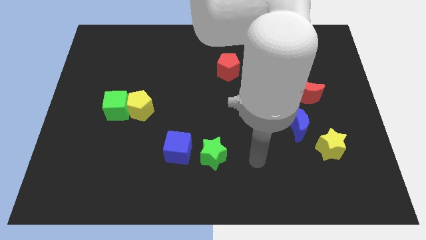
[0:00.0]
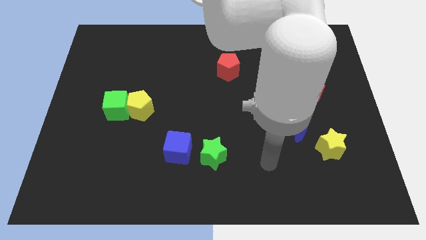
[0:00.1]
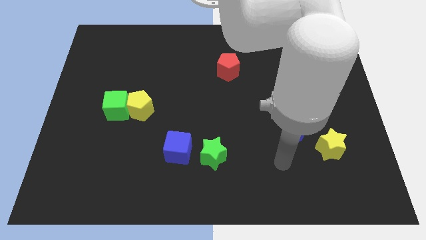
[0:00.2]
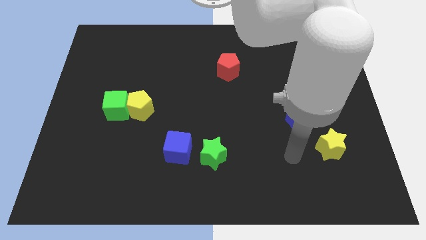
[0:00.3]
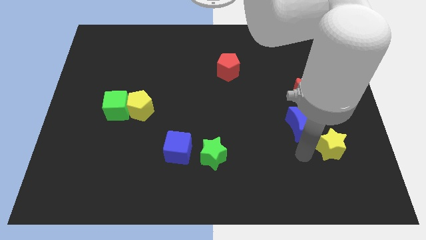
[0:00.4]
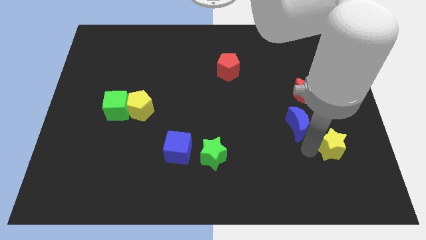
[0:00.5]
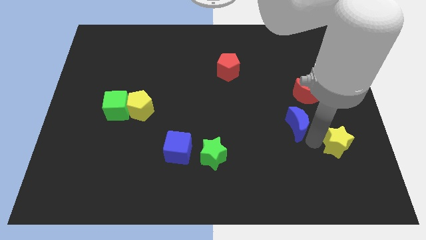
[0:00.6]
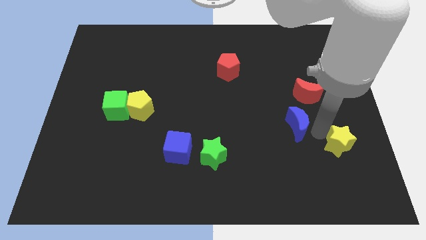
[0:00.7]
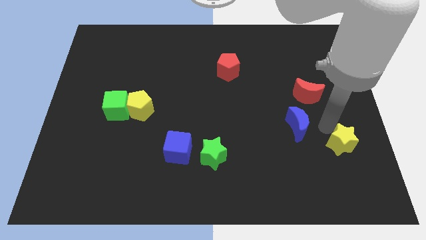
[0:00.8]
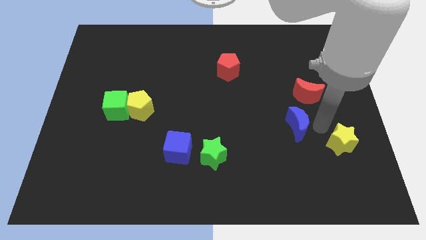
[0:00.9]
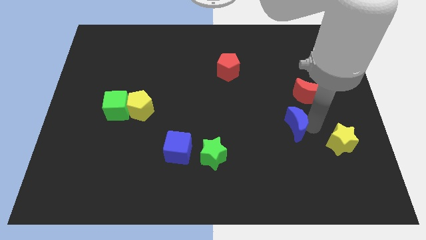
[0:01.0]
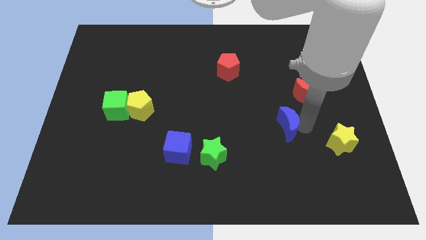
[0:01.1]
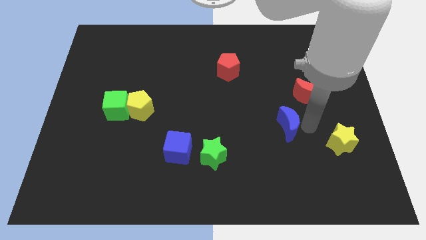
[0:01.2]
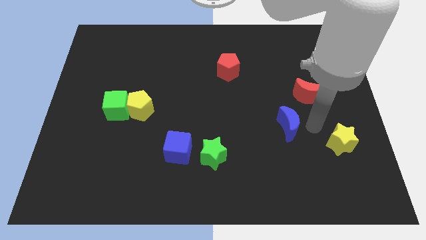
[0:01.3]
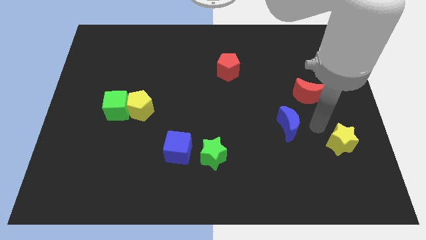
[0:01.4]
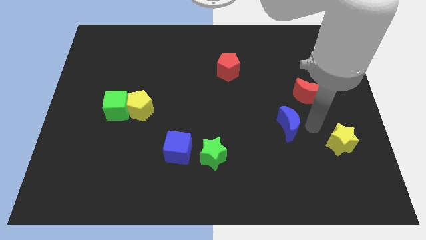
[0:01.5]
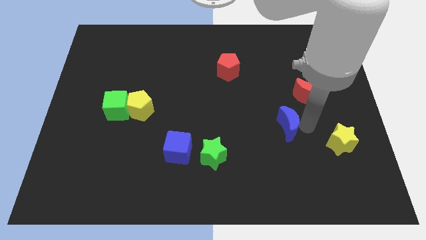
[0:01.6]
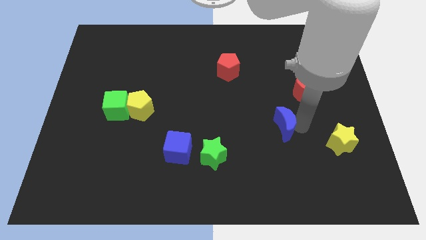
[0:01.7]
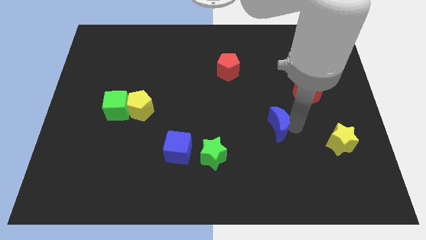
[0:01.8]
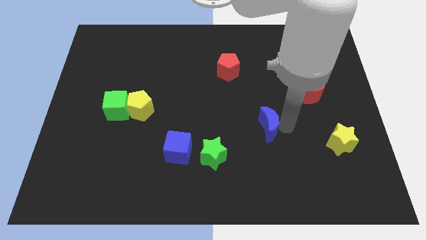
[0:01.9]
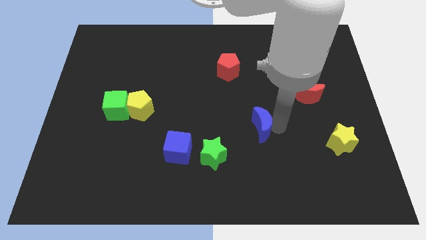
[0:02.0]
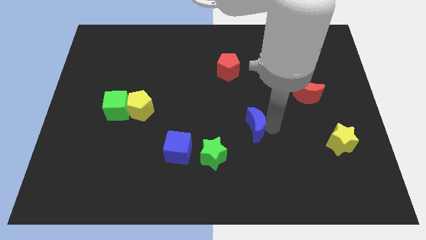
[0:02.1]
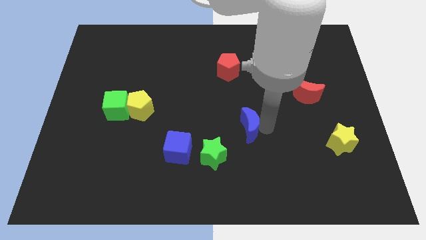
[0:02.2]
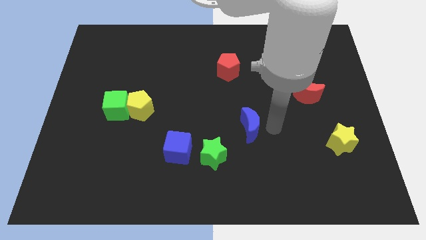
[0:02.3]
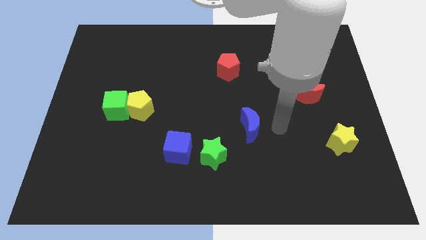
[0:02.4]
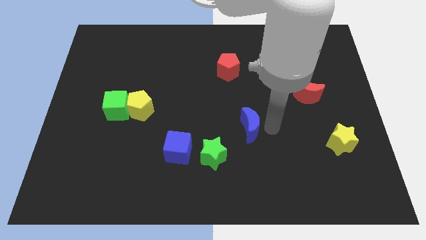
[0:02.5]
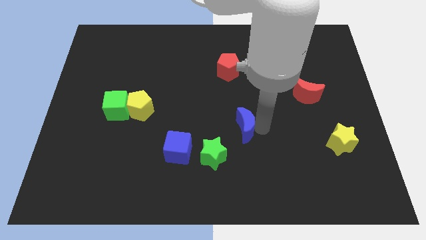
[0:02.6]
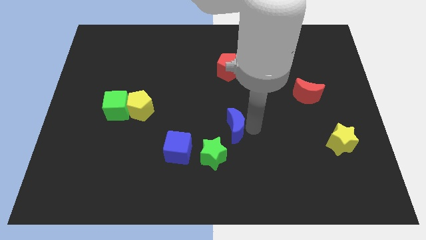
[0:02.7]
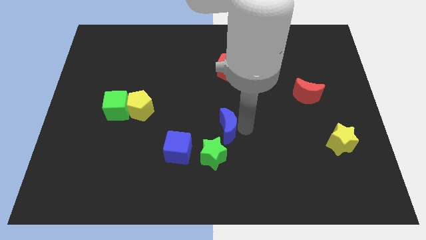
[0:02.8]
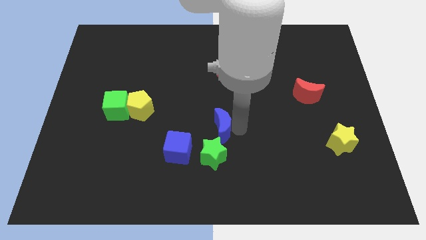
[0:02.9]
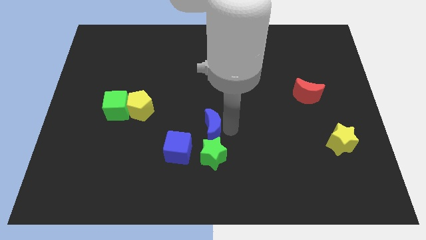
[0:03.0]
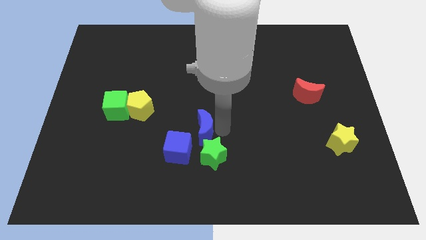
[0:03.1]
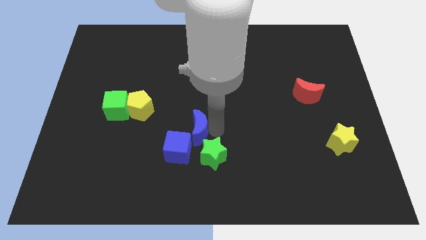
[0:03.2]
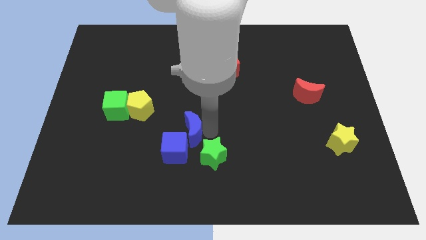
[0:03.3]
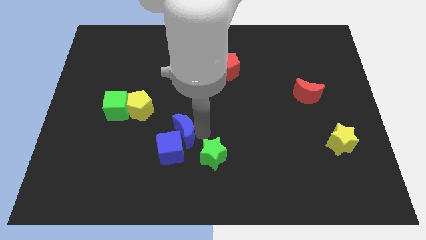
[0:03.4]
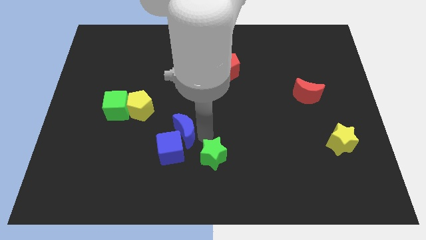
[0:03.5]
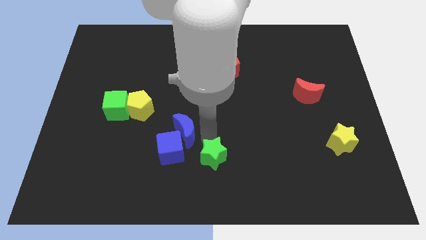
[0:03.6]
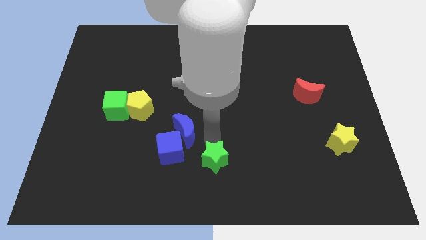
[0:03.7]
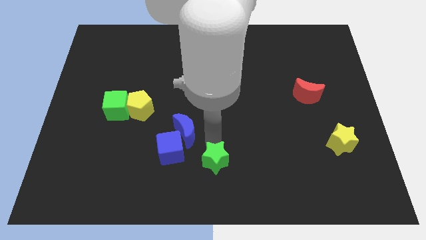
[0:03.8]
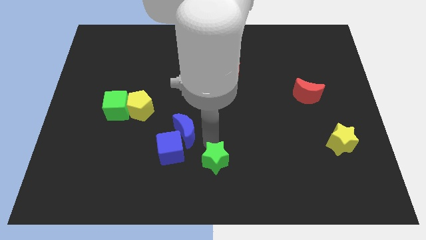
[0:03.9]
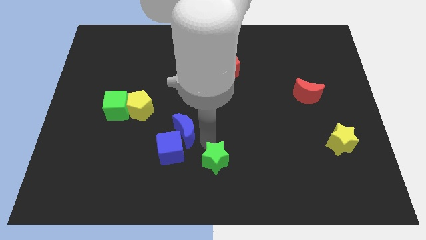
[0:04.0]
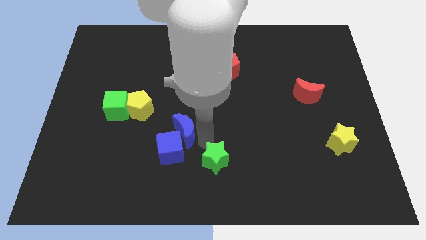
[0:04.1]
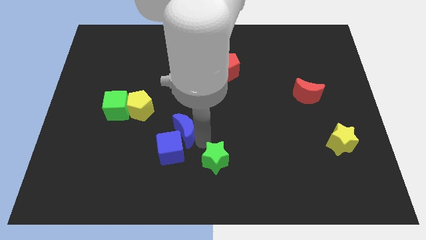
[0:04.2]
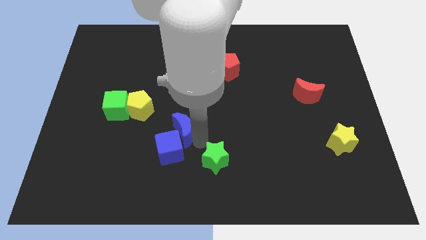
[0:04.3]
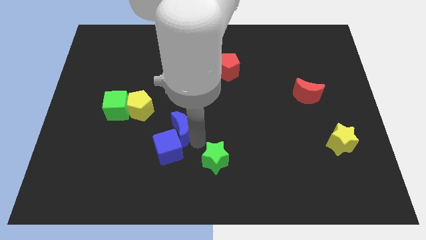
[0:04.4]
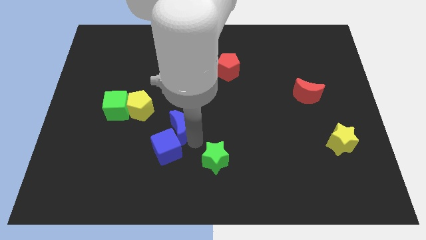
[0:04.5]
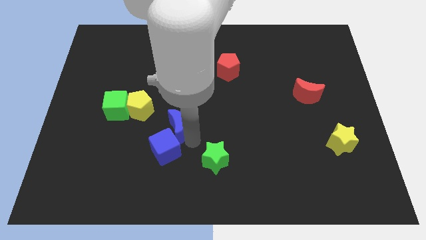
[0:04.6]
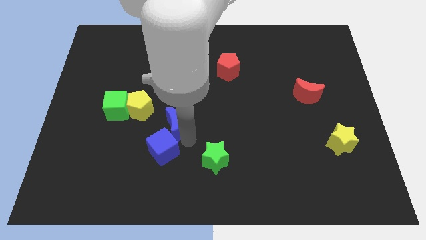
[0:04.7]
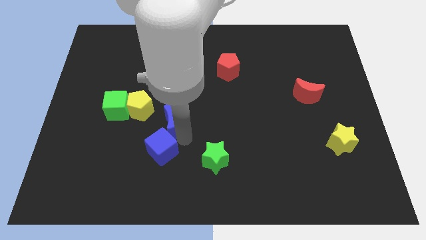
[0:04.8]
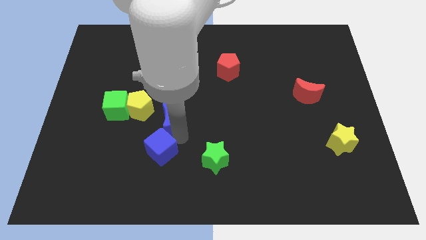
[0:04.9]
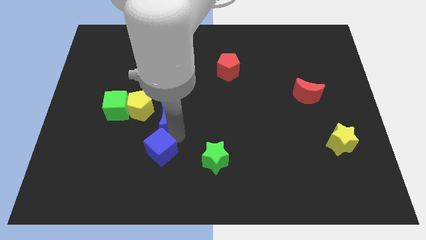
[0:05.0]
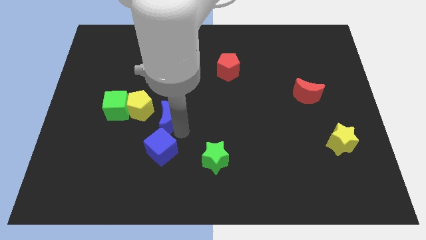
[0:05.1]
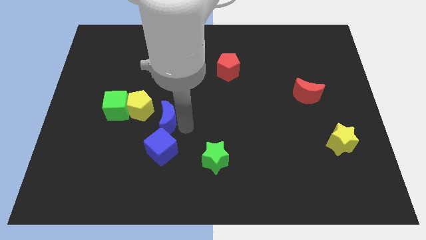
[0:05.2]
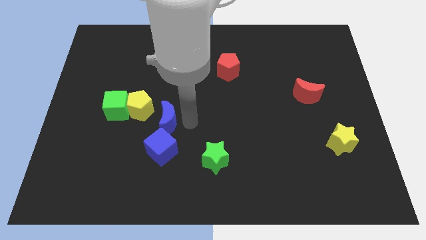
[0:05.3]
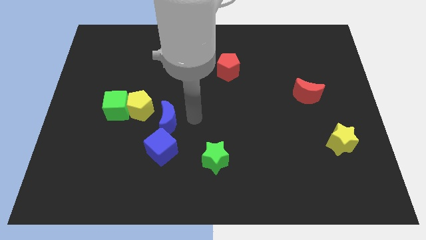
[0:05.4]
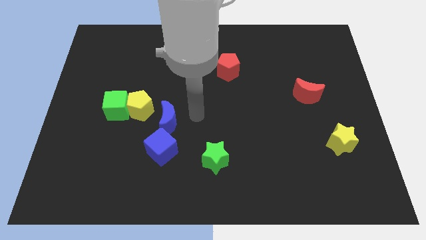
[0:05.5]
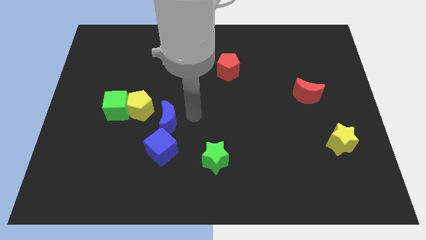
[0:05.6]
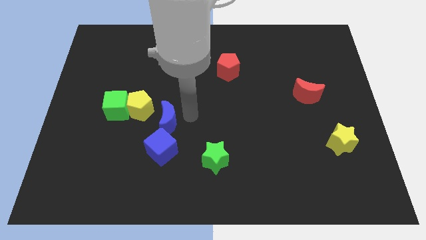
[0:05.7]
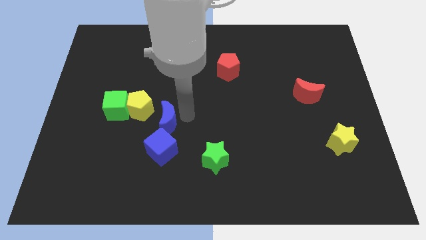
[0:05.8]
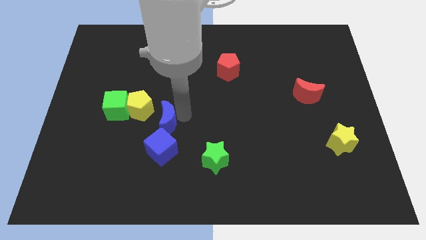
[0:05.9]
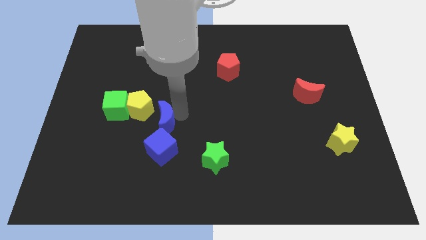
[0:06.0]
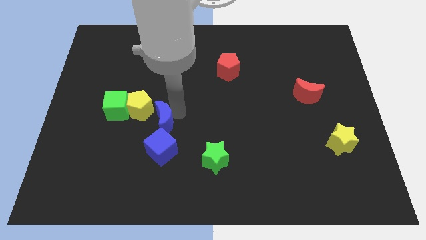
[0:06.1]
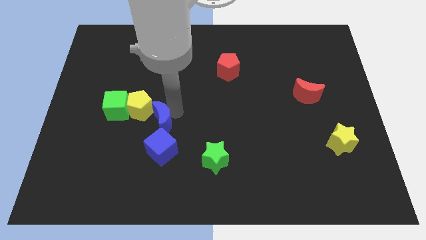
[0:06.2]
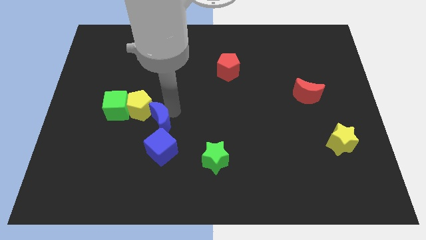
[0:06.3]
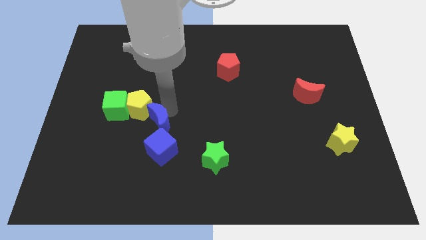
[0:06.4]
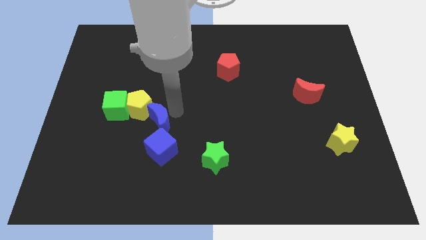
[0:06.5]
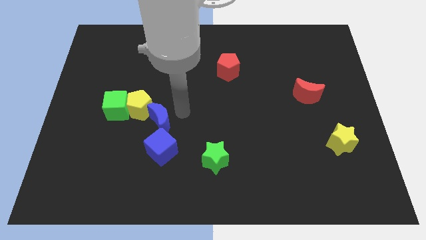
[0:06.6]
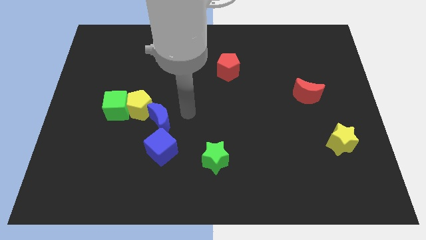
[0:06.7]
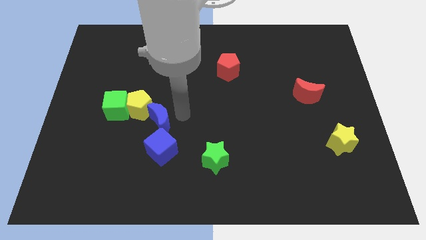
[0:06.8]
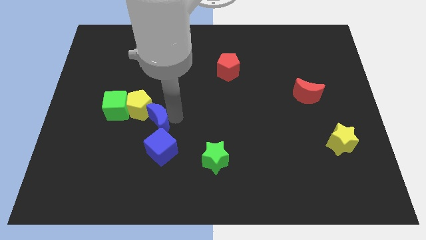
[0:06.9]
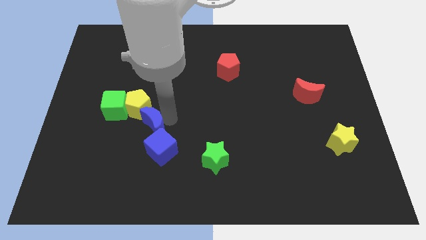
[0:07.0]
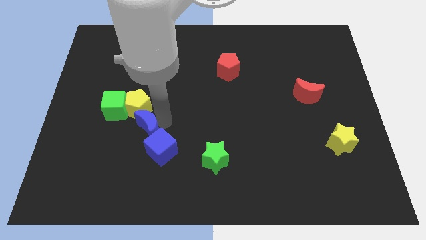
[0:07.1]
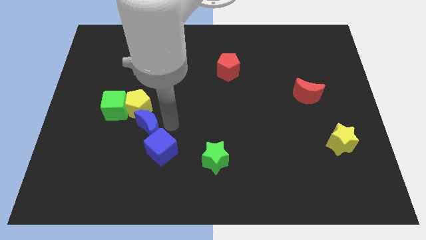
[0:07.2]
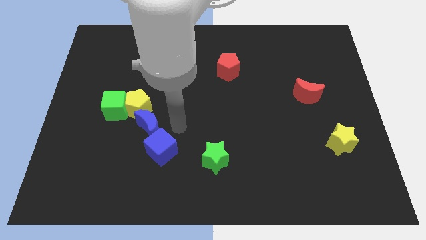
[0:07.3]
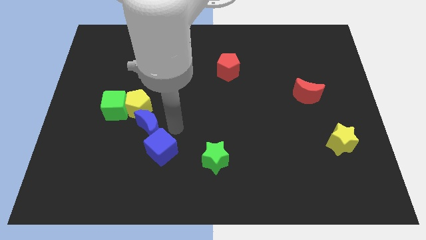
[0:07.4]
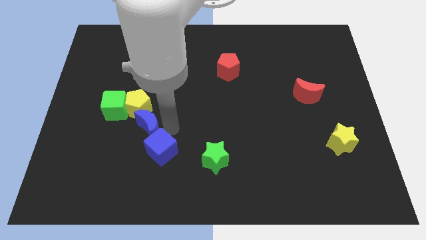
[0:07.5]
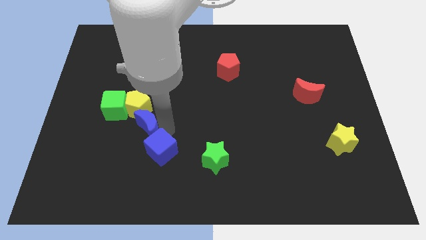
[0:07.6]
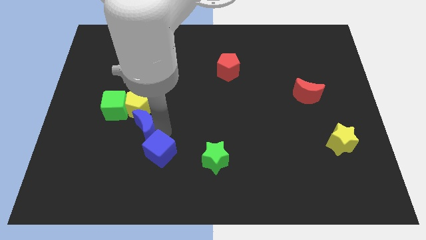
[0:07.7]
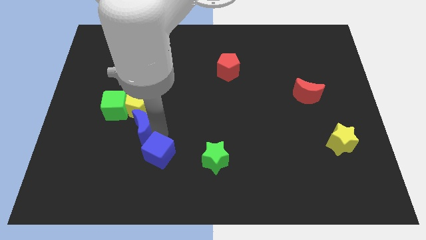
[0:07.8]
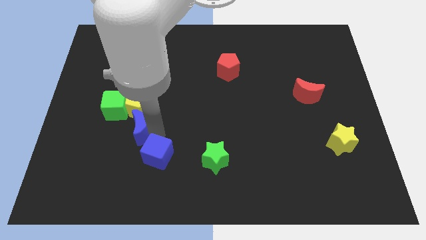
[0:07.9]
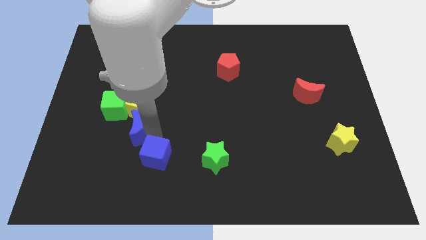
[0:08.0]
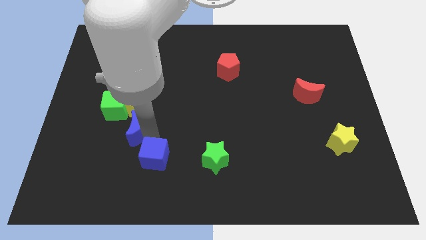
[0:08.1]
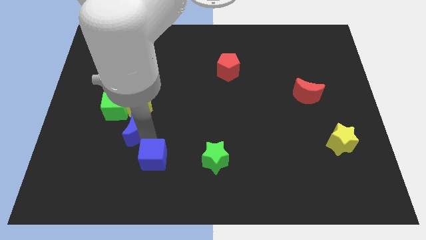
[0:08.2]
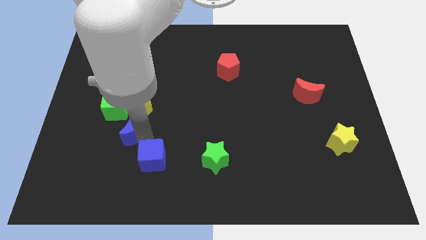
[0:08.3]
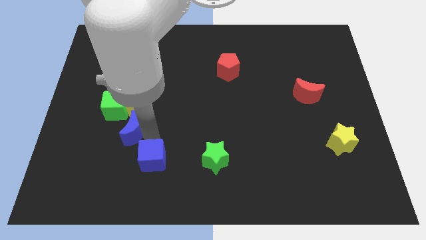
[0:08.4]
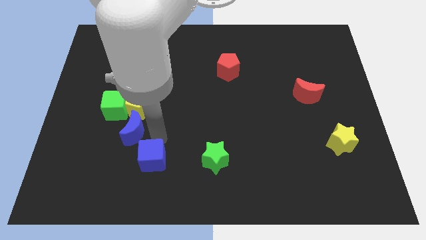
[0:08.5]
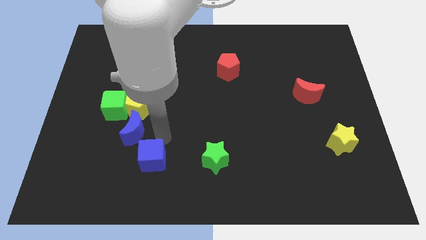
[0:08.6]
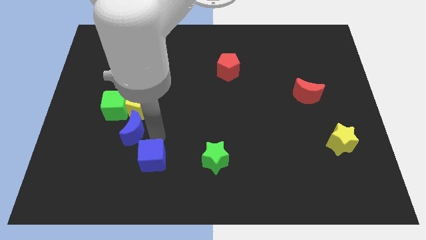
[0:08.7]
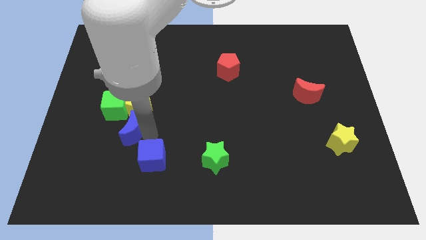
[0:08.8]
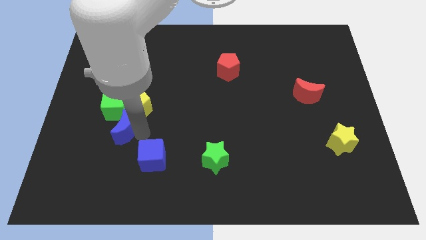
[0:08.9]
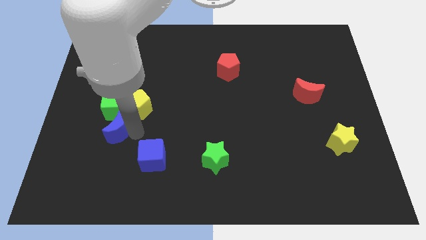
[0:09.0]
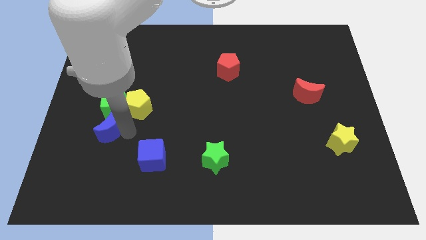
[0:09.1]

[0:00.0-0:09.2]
put the blue moon to the bottom left side of the green cube
